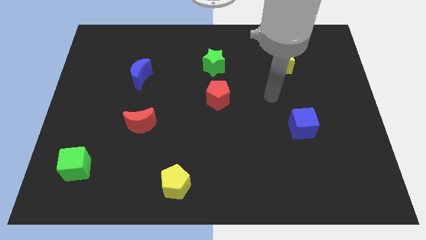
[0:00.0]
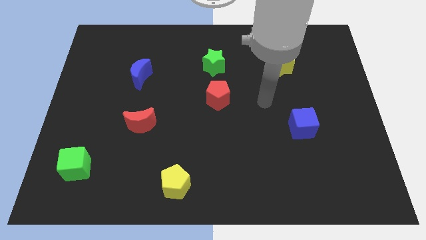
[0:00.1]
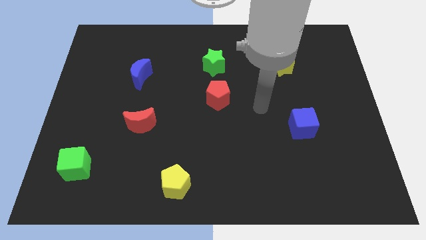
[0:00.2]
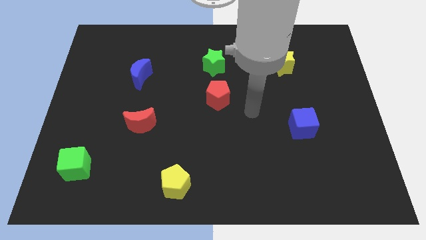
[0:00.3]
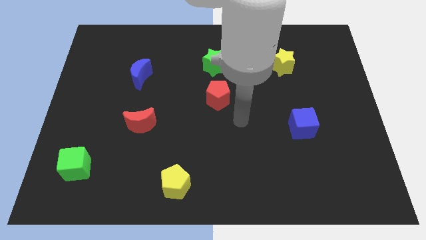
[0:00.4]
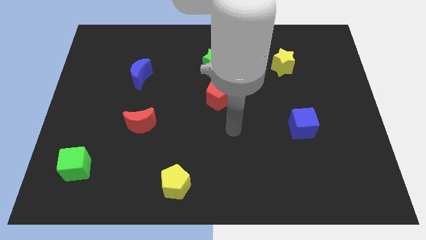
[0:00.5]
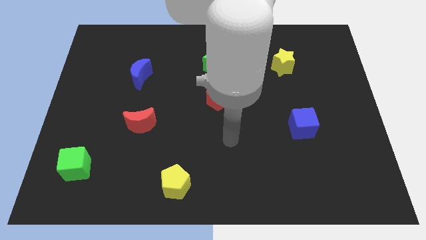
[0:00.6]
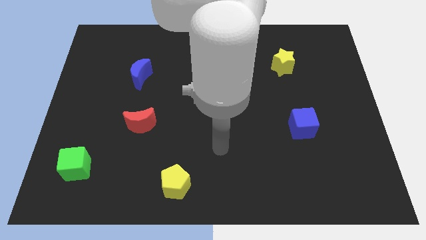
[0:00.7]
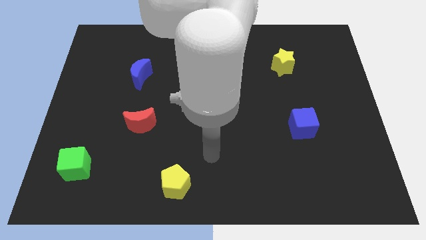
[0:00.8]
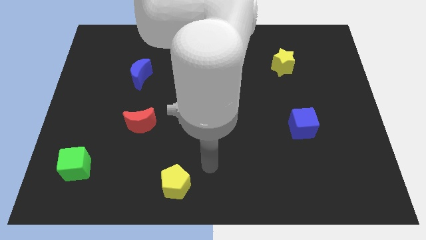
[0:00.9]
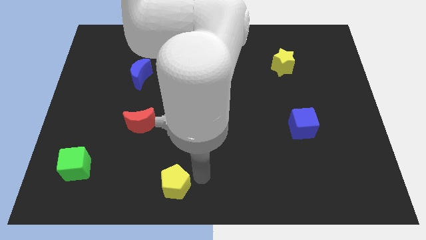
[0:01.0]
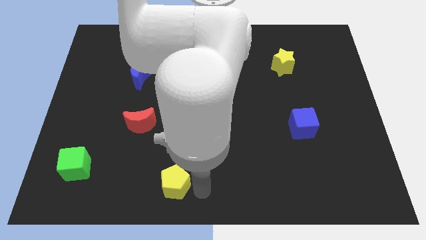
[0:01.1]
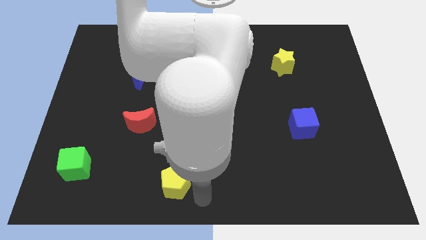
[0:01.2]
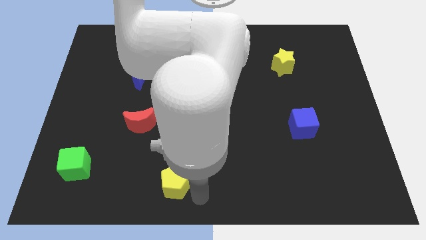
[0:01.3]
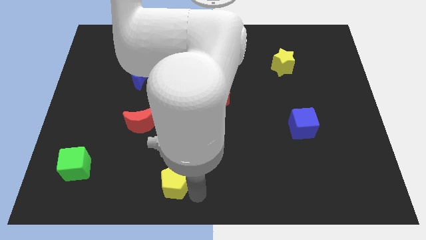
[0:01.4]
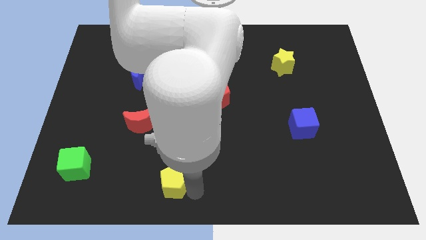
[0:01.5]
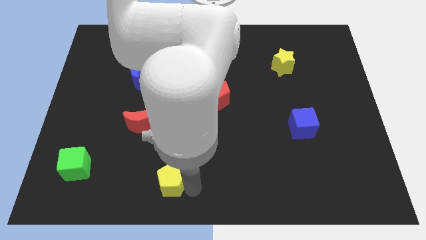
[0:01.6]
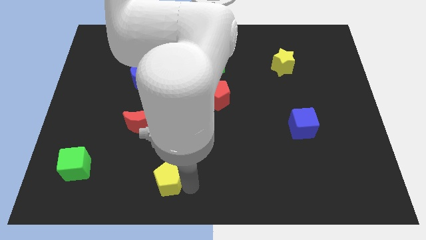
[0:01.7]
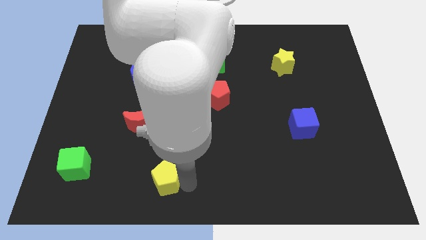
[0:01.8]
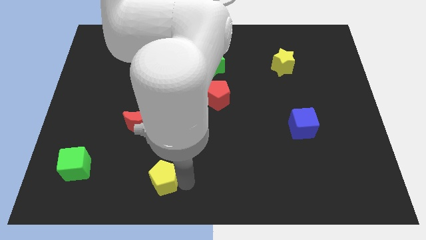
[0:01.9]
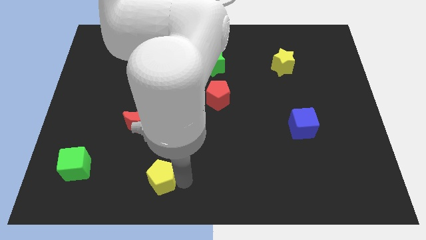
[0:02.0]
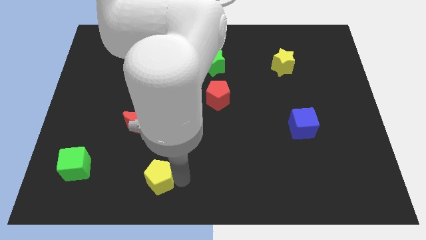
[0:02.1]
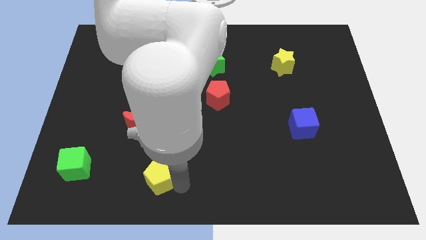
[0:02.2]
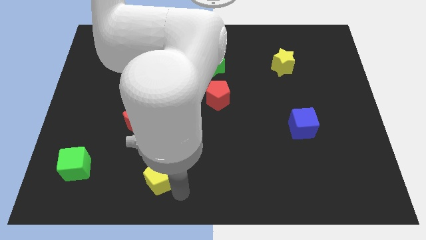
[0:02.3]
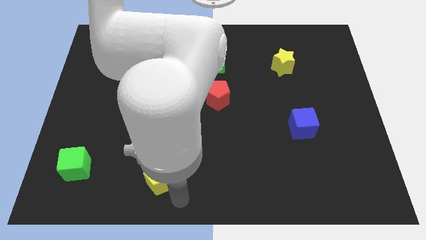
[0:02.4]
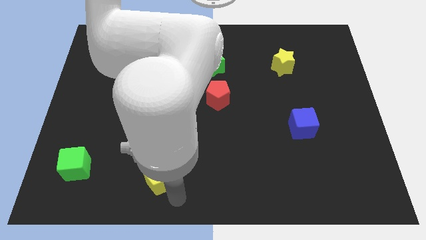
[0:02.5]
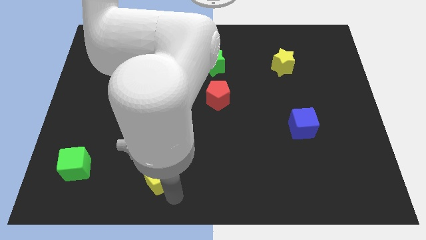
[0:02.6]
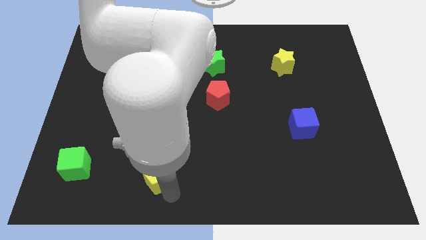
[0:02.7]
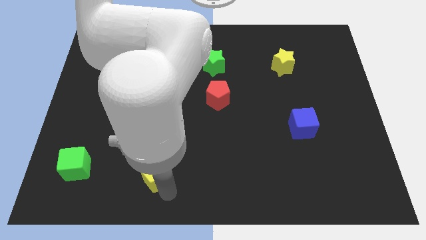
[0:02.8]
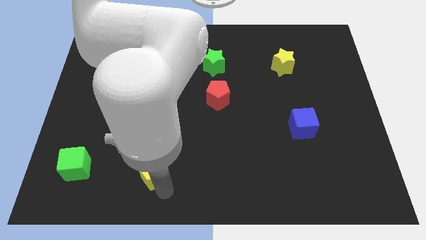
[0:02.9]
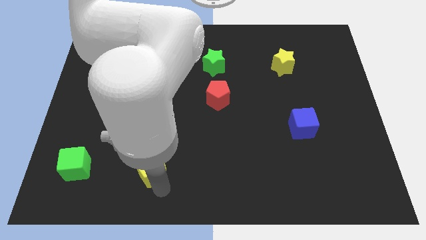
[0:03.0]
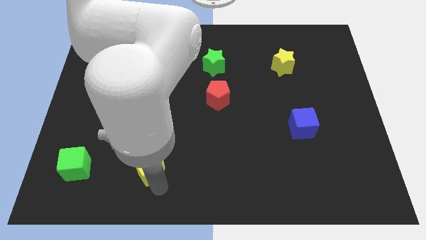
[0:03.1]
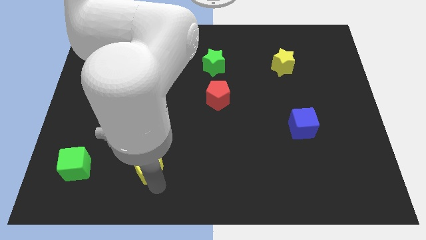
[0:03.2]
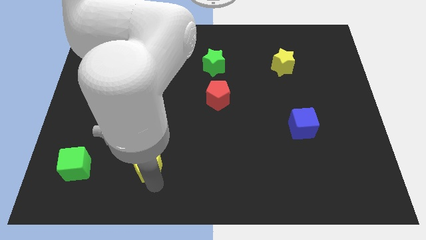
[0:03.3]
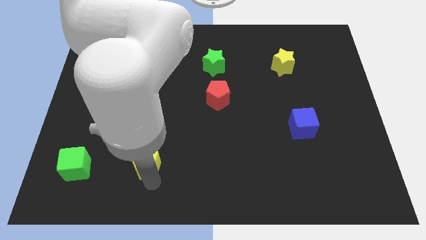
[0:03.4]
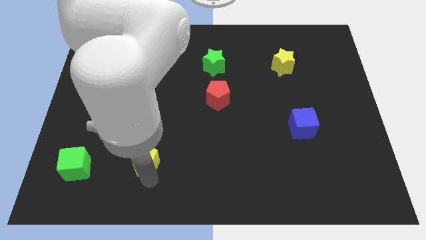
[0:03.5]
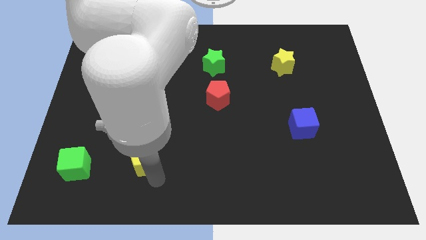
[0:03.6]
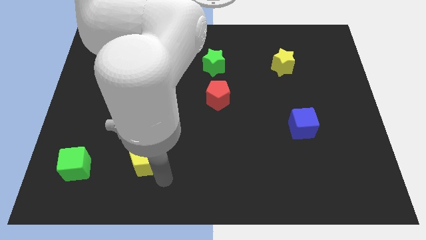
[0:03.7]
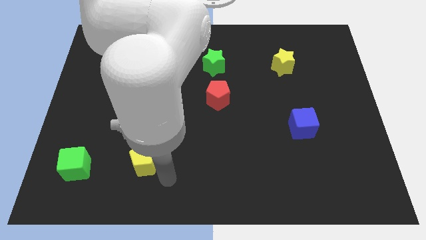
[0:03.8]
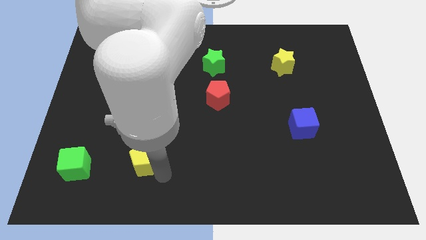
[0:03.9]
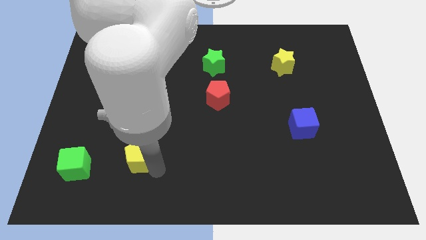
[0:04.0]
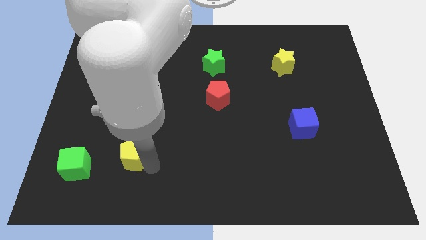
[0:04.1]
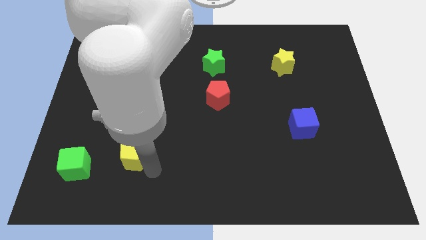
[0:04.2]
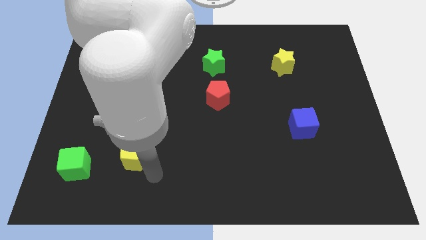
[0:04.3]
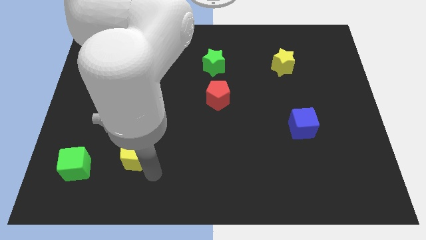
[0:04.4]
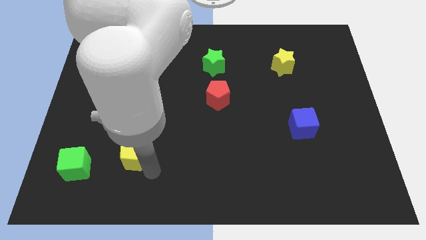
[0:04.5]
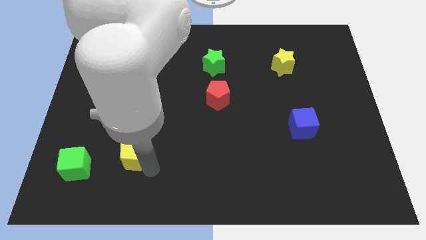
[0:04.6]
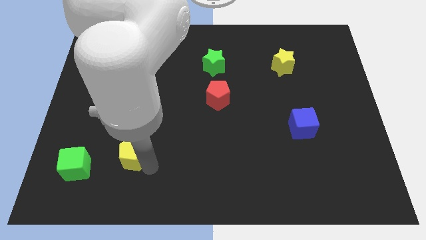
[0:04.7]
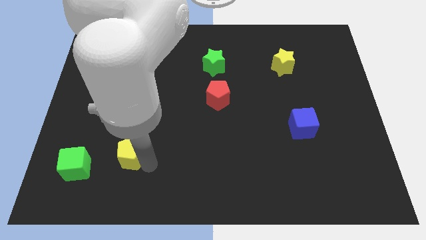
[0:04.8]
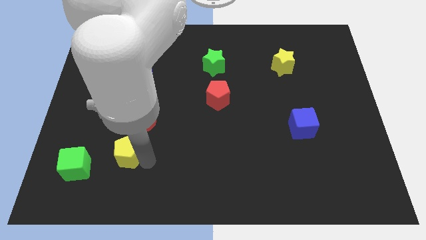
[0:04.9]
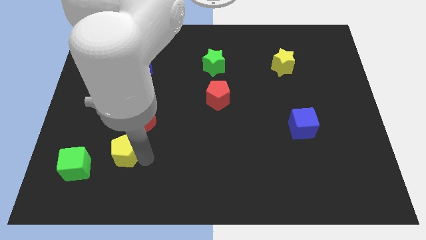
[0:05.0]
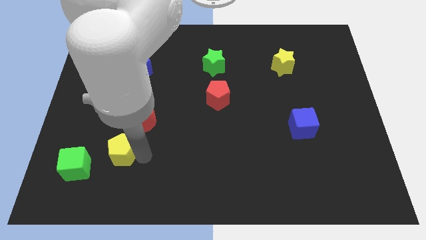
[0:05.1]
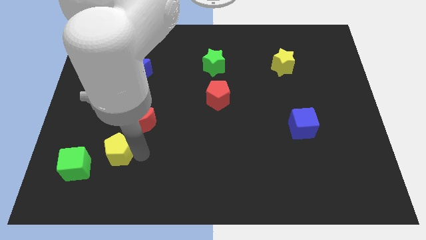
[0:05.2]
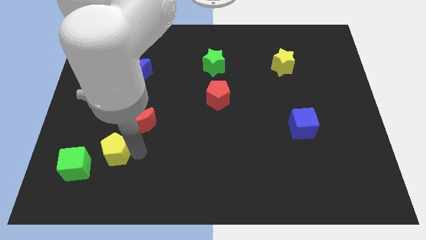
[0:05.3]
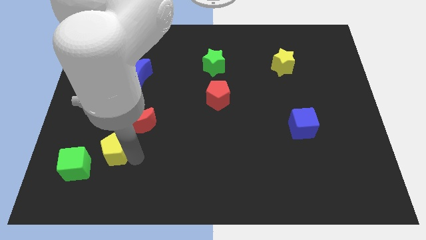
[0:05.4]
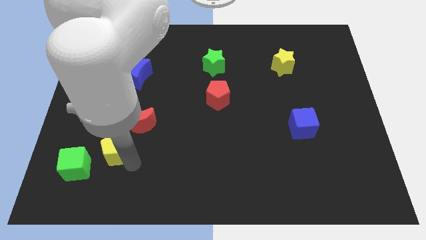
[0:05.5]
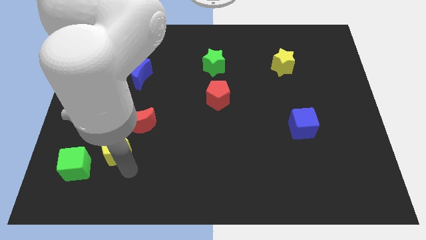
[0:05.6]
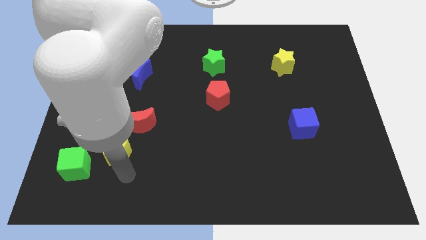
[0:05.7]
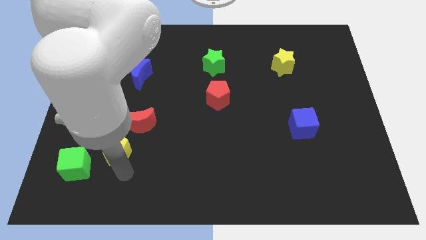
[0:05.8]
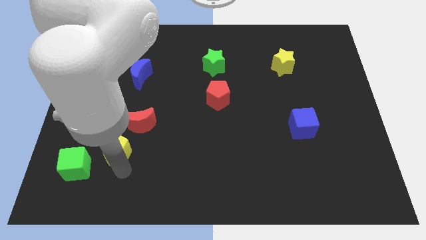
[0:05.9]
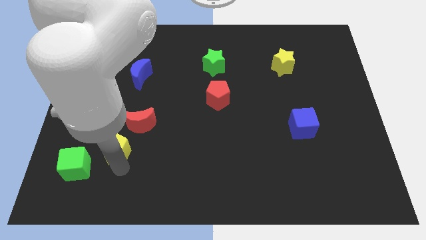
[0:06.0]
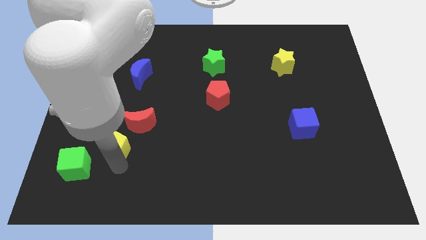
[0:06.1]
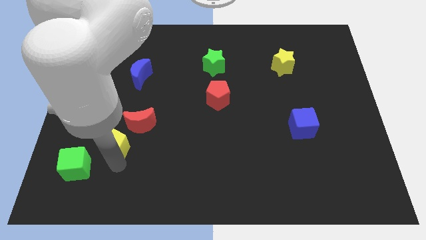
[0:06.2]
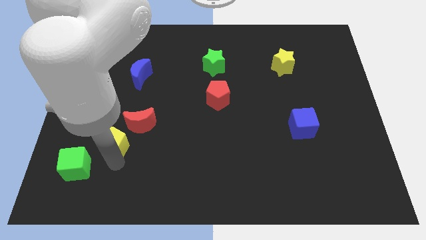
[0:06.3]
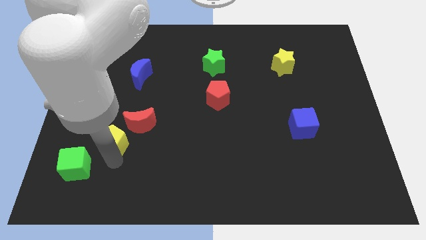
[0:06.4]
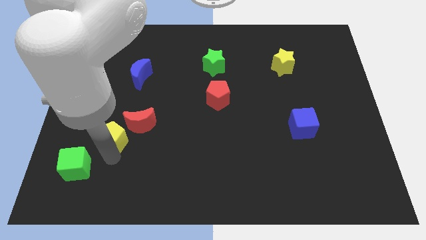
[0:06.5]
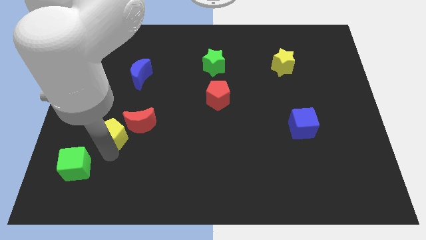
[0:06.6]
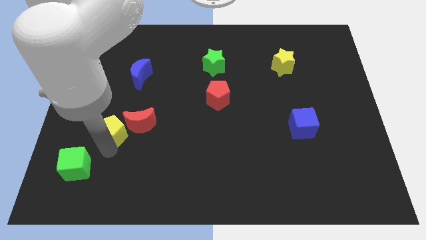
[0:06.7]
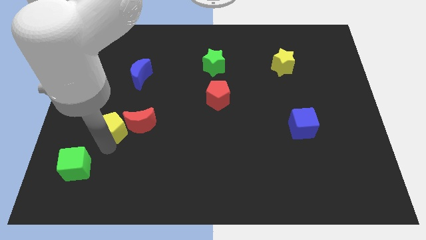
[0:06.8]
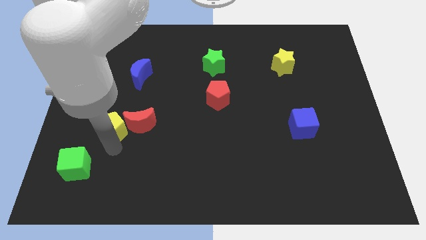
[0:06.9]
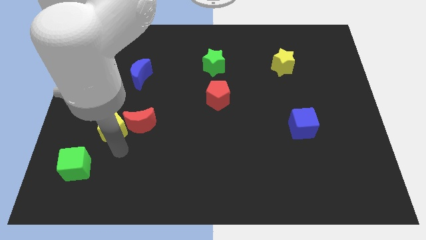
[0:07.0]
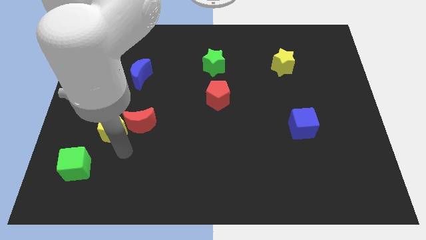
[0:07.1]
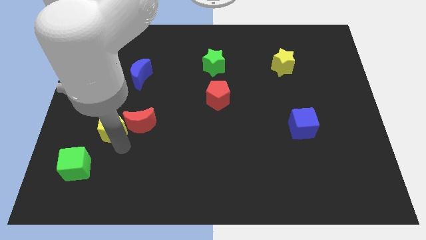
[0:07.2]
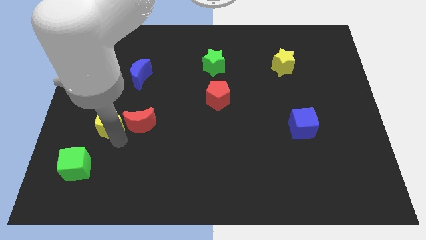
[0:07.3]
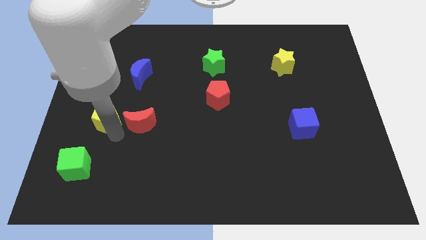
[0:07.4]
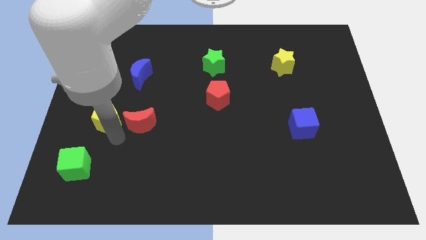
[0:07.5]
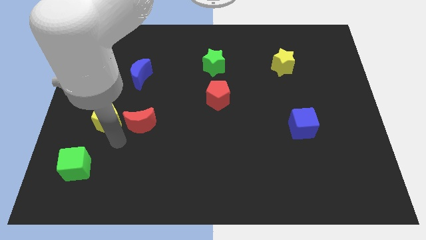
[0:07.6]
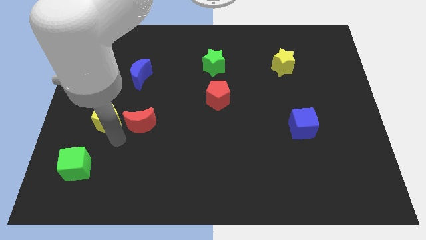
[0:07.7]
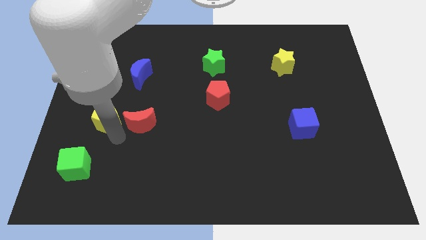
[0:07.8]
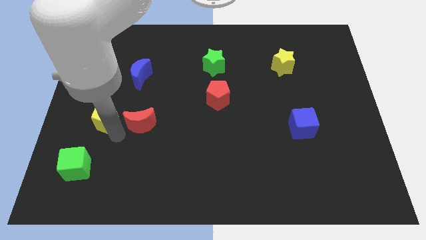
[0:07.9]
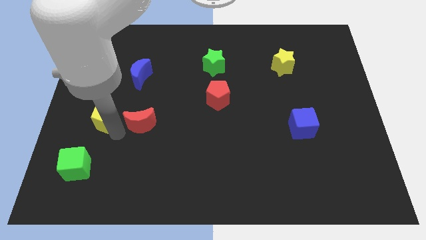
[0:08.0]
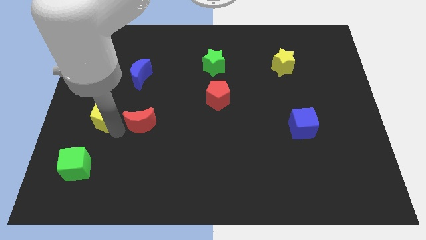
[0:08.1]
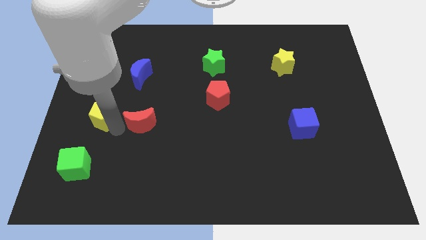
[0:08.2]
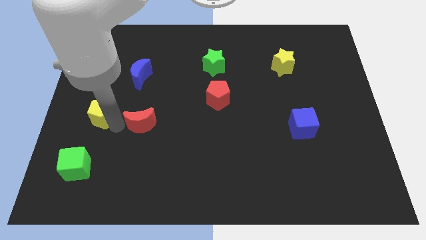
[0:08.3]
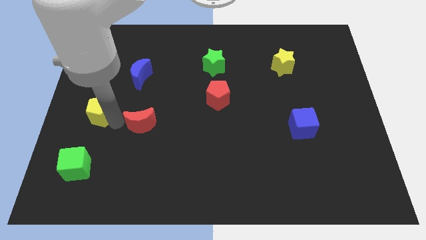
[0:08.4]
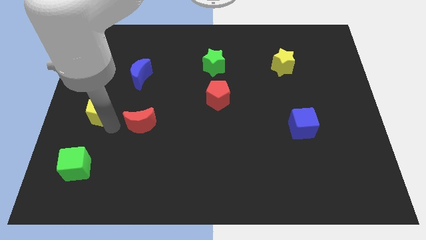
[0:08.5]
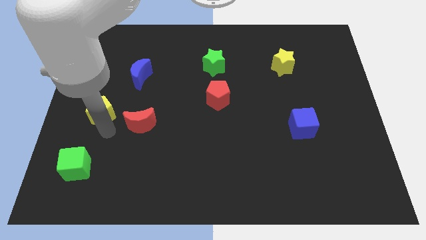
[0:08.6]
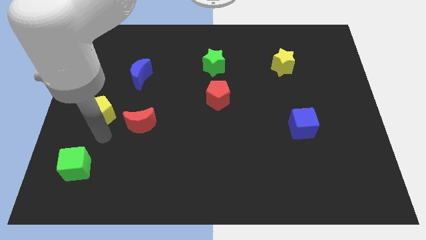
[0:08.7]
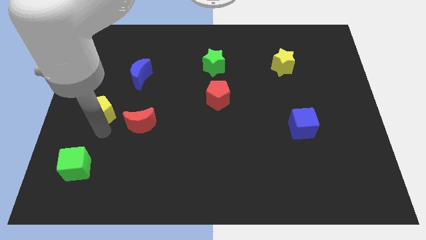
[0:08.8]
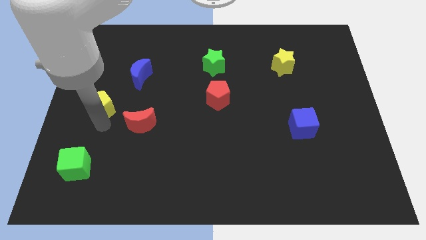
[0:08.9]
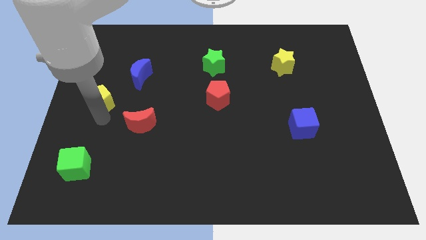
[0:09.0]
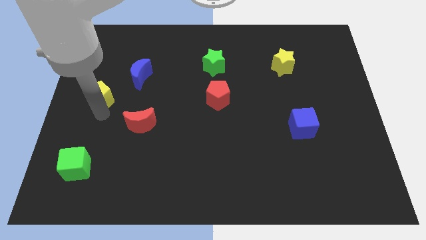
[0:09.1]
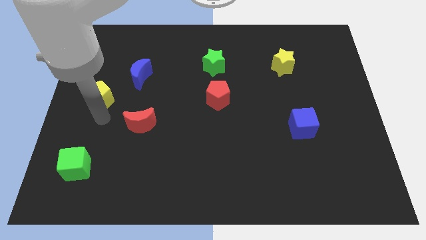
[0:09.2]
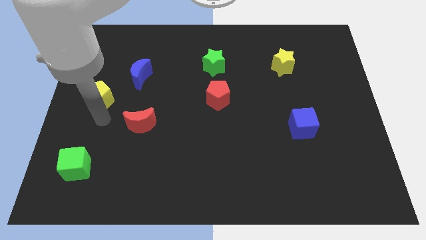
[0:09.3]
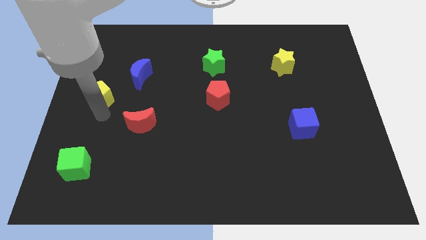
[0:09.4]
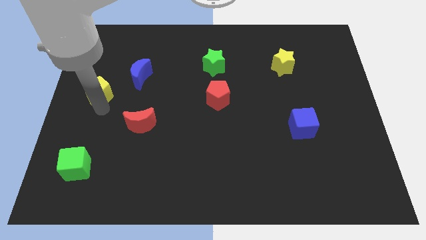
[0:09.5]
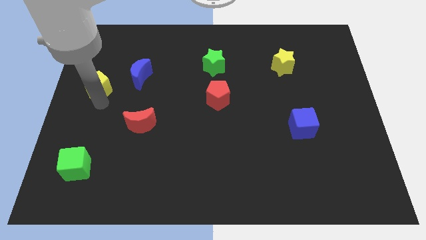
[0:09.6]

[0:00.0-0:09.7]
move the yellow pentagon to the left side of the blue moon
